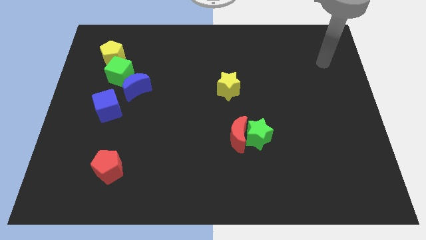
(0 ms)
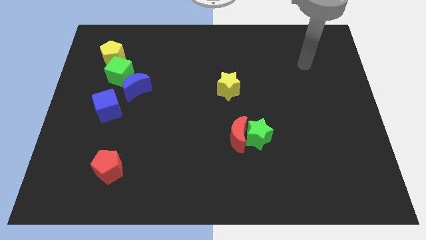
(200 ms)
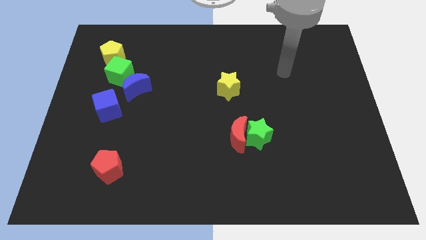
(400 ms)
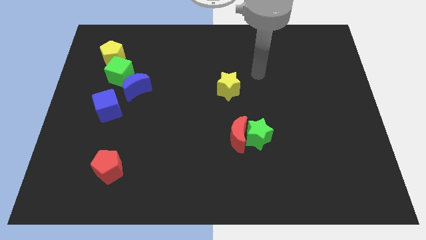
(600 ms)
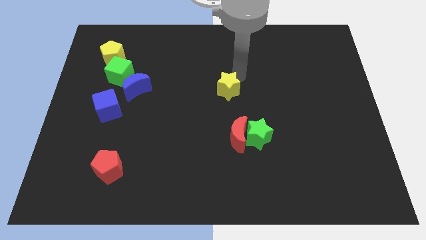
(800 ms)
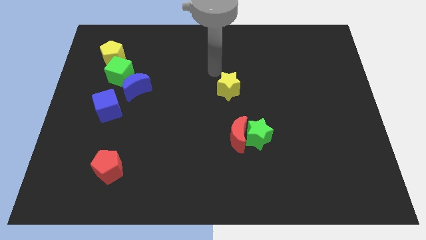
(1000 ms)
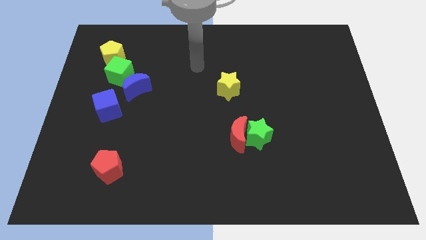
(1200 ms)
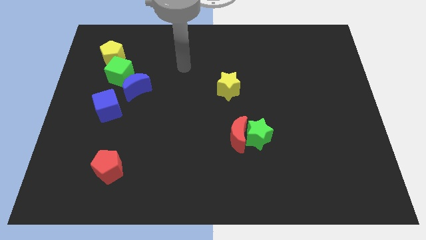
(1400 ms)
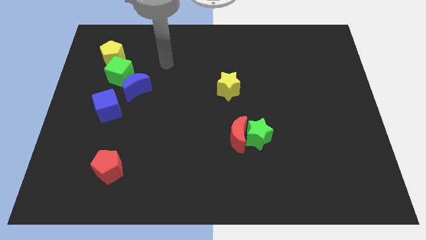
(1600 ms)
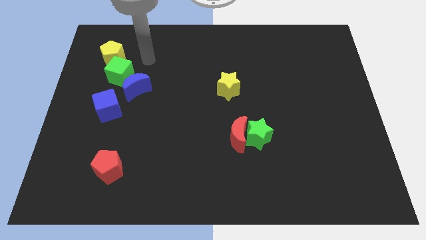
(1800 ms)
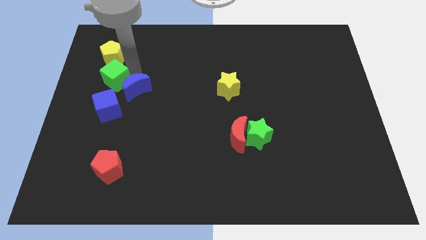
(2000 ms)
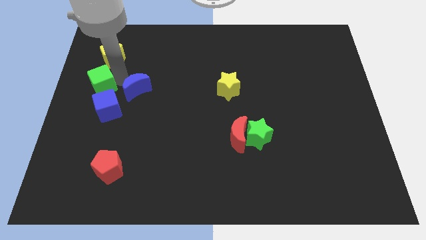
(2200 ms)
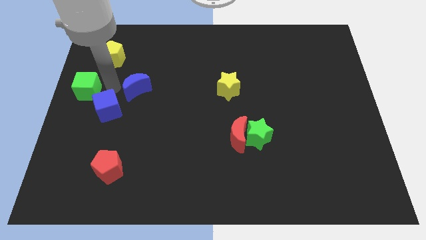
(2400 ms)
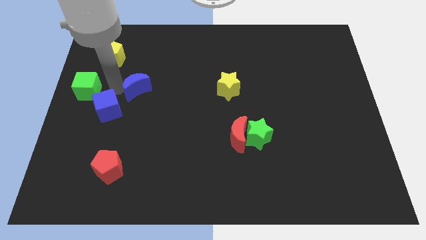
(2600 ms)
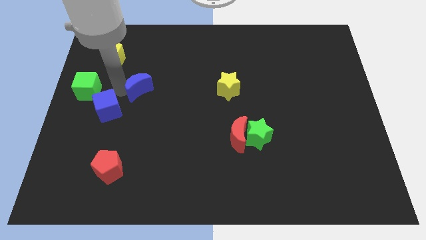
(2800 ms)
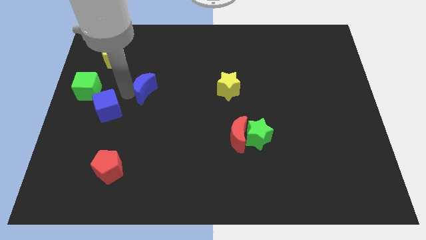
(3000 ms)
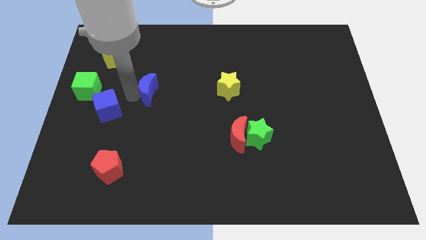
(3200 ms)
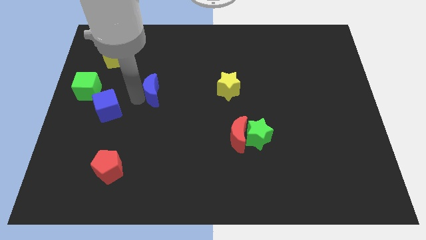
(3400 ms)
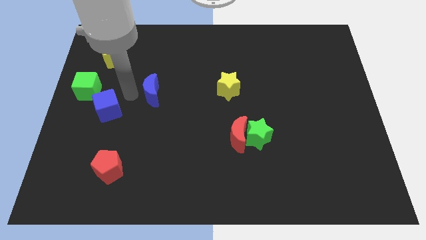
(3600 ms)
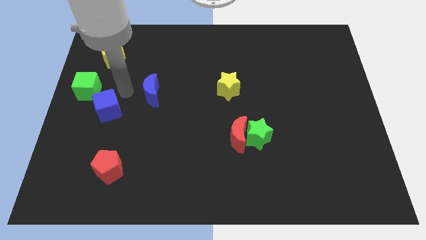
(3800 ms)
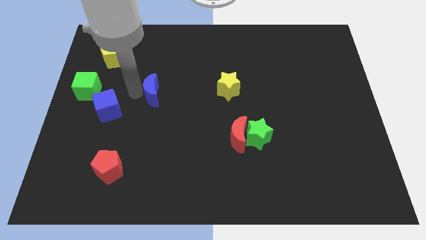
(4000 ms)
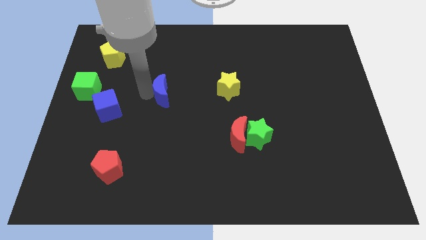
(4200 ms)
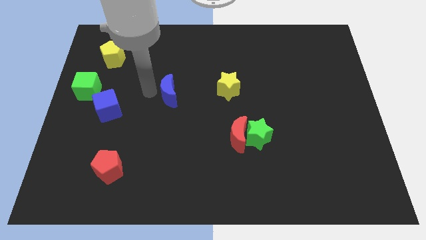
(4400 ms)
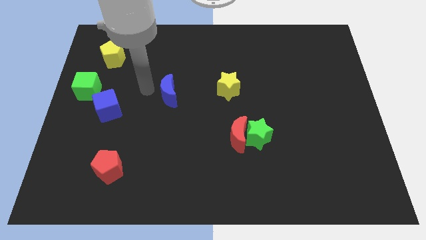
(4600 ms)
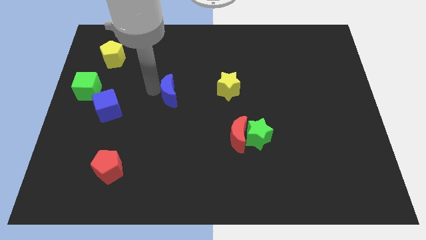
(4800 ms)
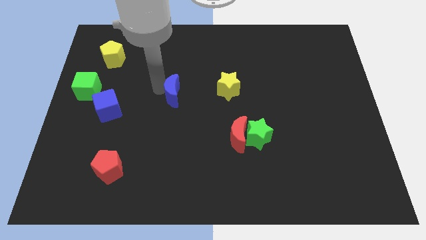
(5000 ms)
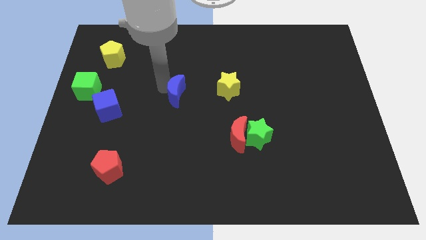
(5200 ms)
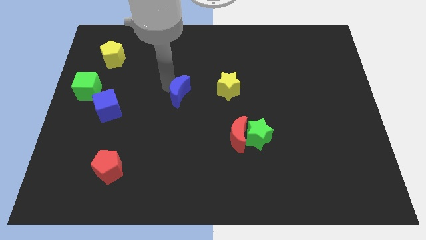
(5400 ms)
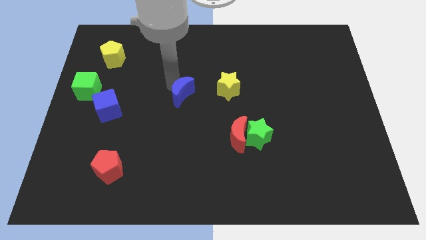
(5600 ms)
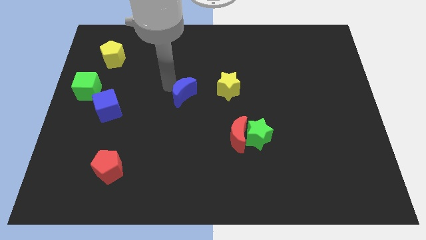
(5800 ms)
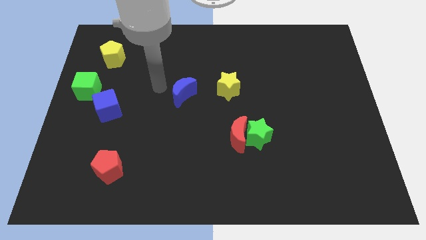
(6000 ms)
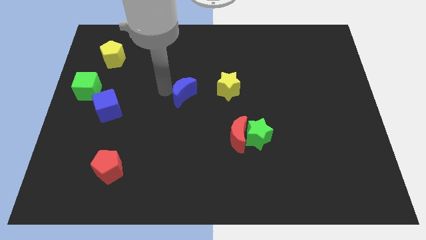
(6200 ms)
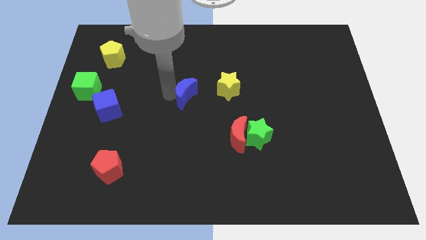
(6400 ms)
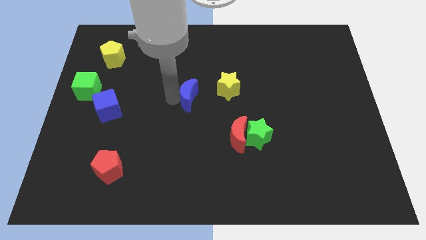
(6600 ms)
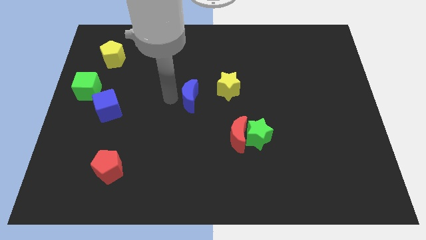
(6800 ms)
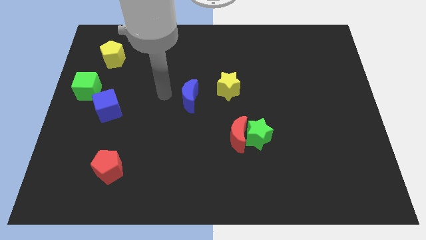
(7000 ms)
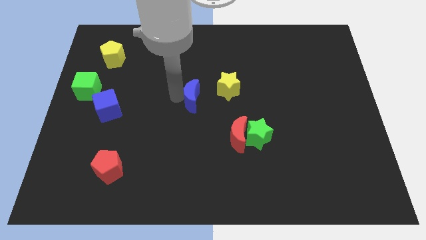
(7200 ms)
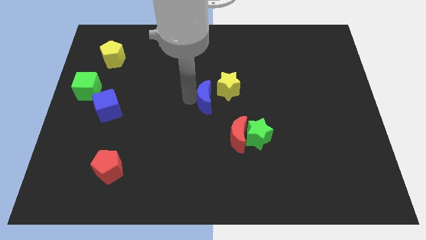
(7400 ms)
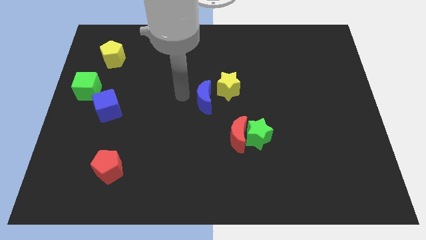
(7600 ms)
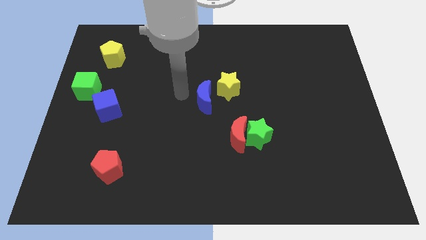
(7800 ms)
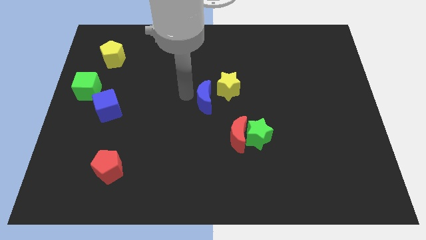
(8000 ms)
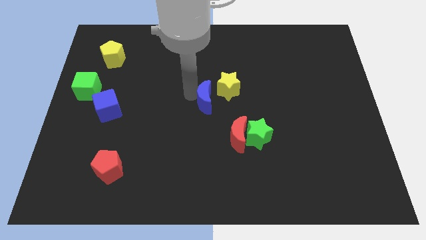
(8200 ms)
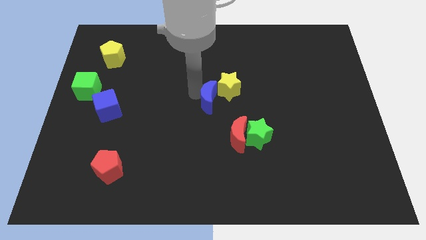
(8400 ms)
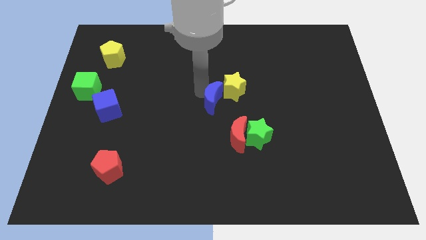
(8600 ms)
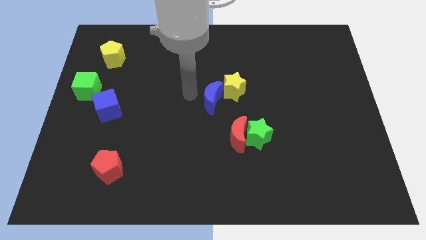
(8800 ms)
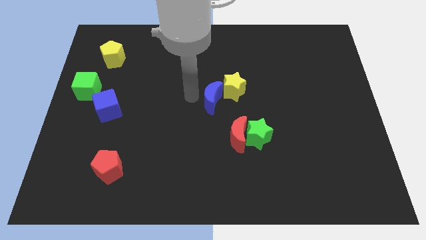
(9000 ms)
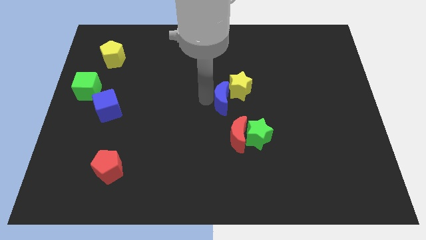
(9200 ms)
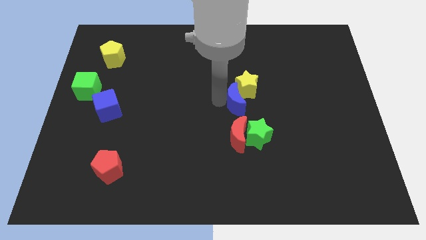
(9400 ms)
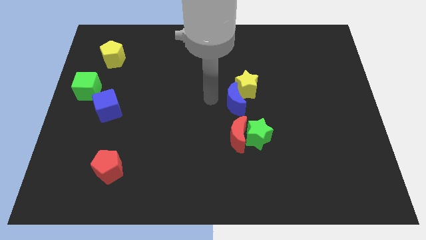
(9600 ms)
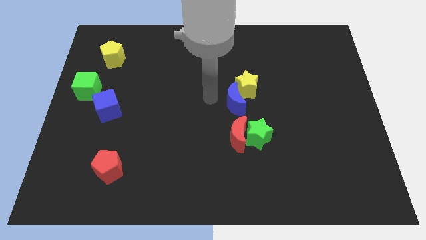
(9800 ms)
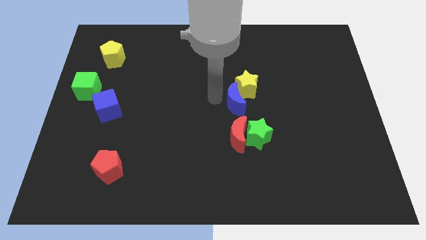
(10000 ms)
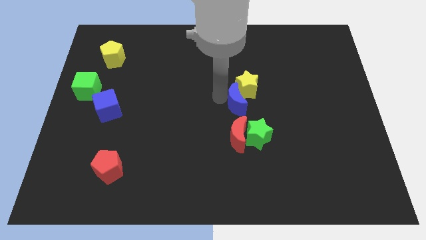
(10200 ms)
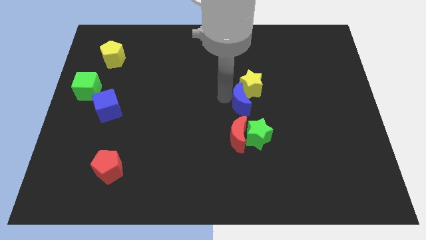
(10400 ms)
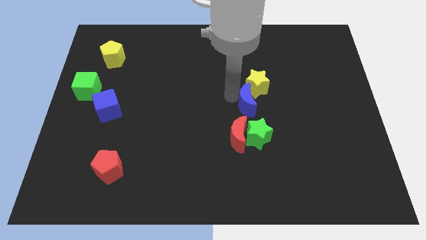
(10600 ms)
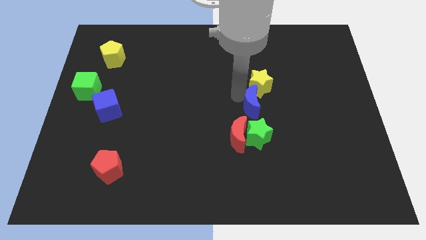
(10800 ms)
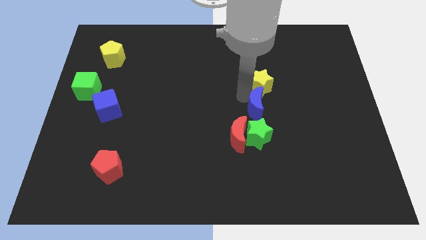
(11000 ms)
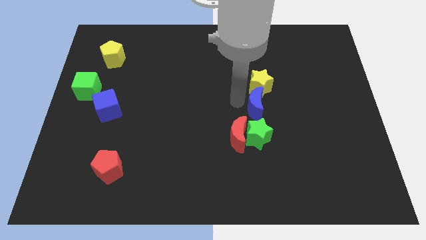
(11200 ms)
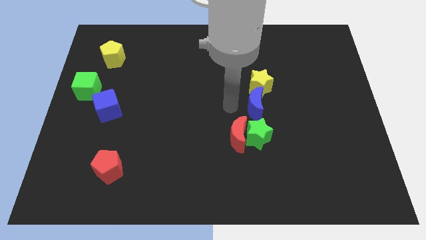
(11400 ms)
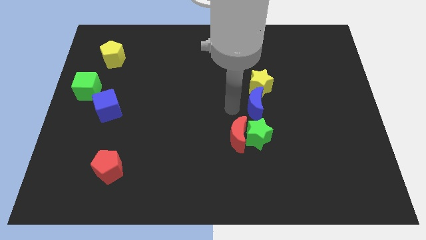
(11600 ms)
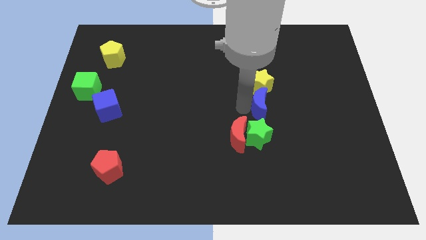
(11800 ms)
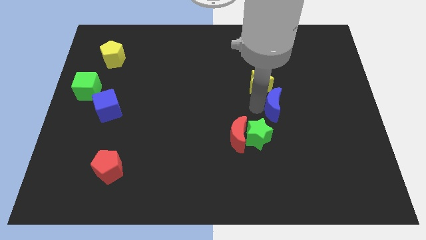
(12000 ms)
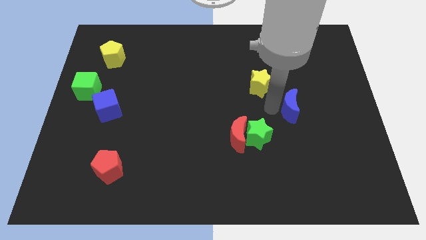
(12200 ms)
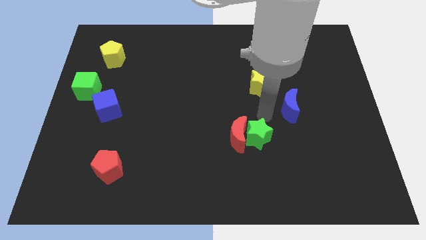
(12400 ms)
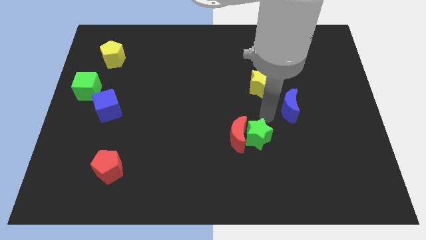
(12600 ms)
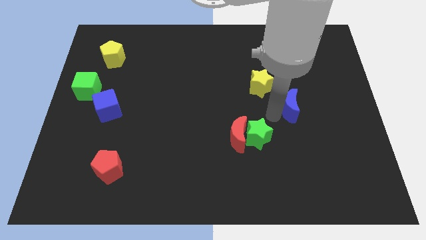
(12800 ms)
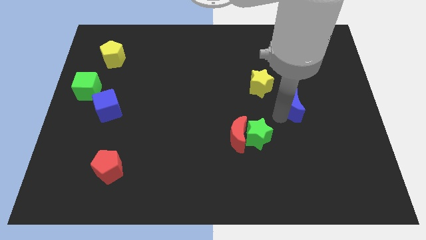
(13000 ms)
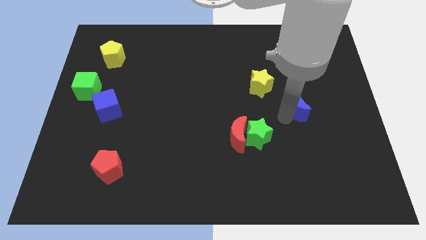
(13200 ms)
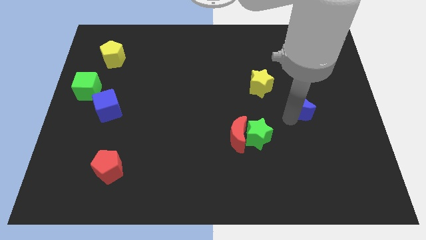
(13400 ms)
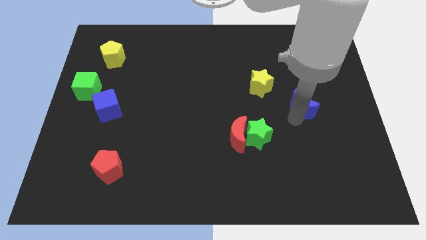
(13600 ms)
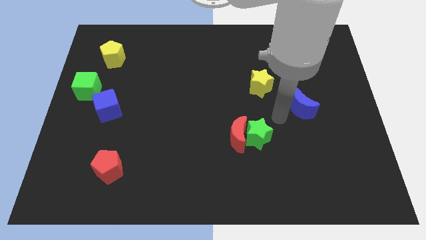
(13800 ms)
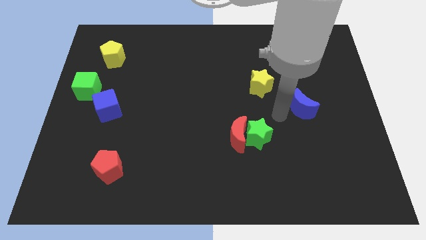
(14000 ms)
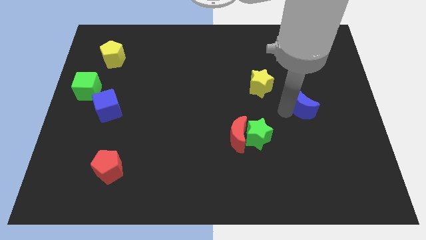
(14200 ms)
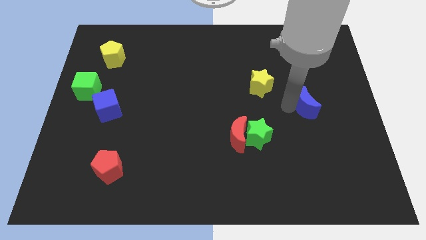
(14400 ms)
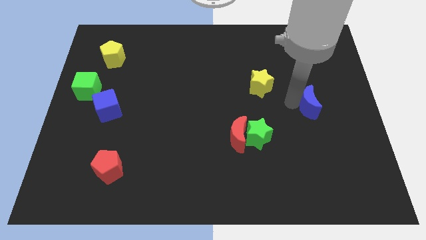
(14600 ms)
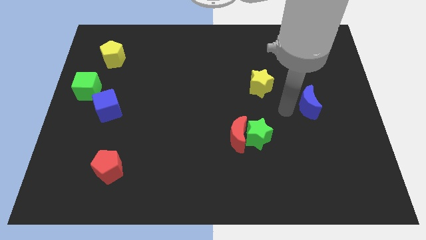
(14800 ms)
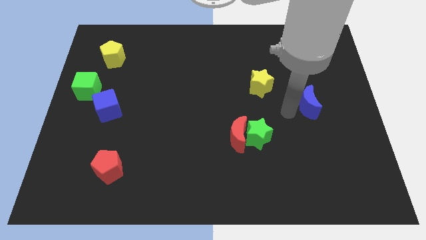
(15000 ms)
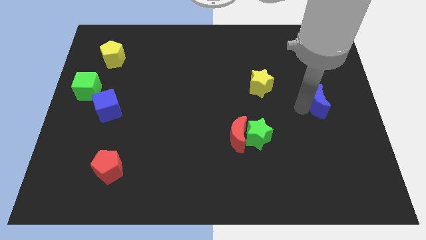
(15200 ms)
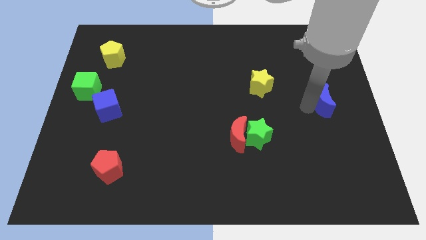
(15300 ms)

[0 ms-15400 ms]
slide the blue moon to the right side of the board
